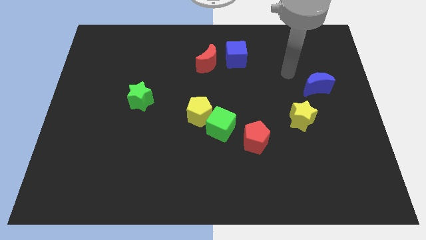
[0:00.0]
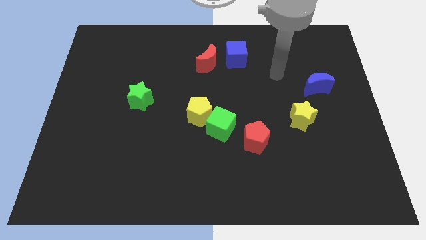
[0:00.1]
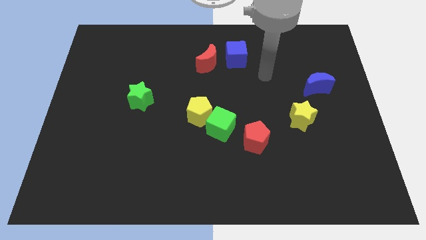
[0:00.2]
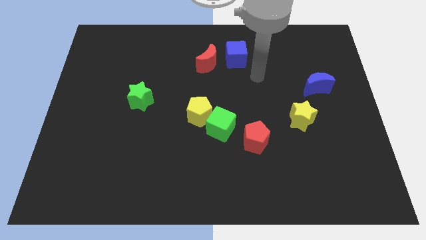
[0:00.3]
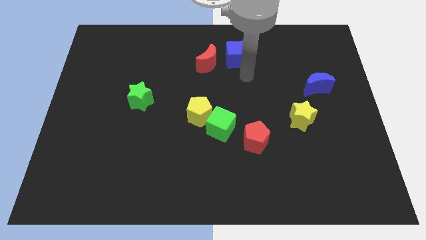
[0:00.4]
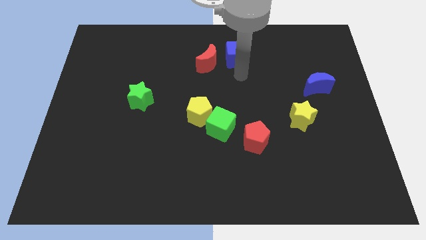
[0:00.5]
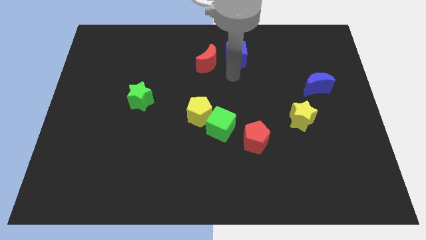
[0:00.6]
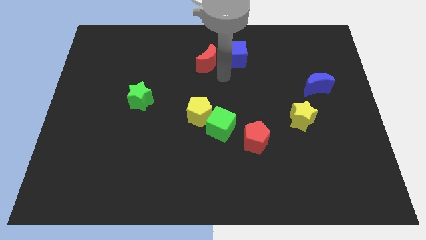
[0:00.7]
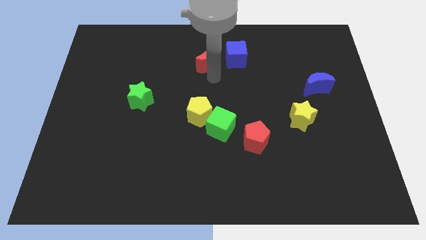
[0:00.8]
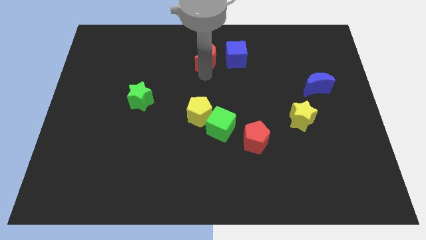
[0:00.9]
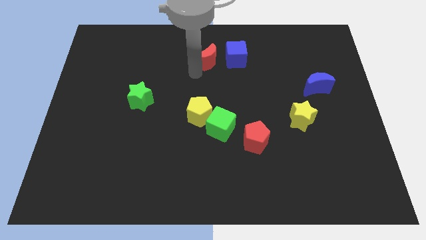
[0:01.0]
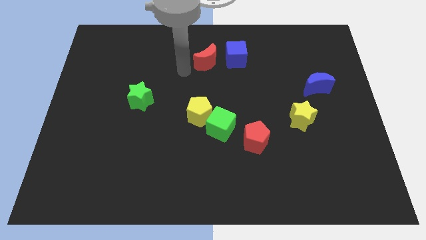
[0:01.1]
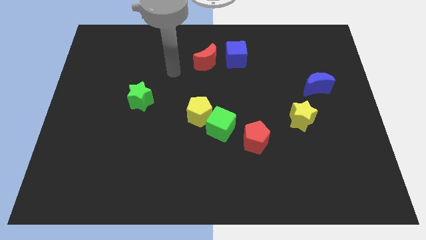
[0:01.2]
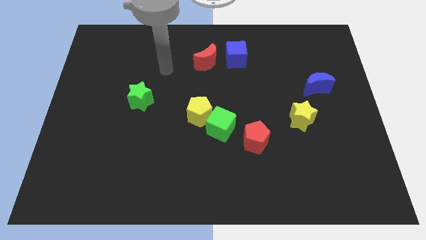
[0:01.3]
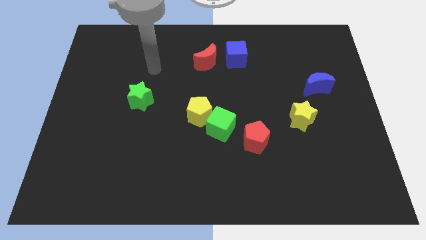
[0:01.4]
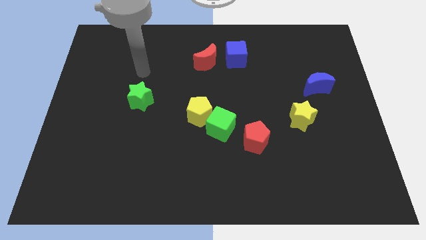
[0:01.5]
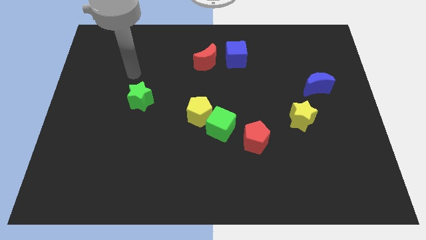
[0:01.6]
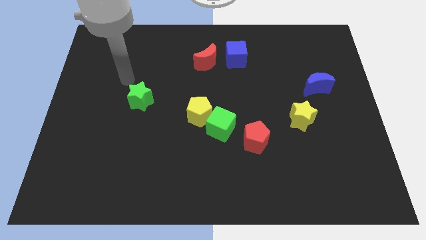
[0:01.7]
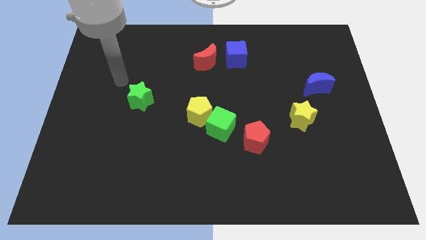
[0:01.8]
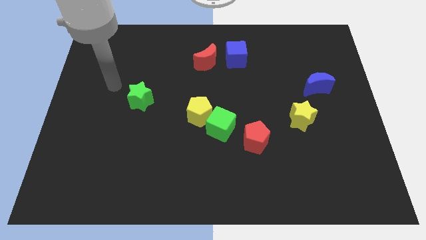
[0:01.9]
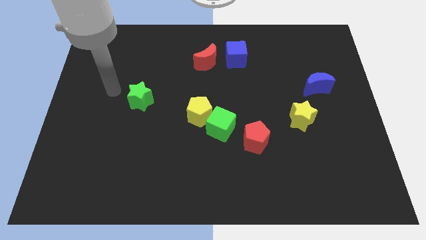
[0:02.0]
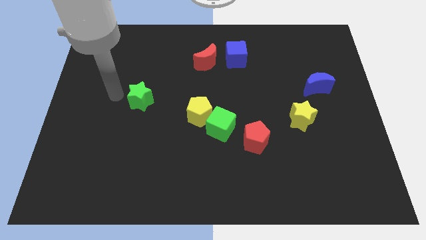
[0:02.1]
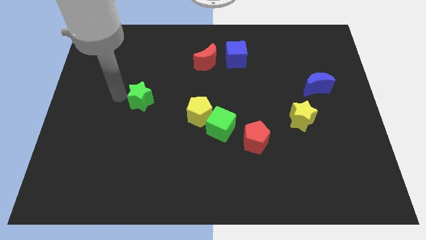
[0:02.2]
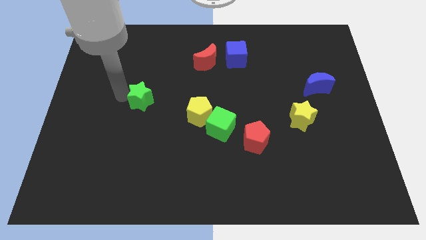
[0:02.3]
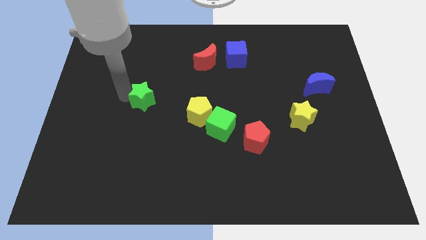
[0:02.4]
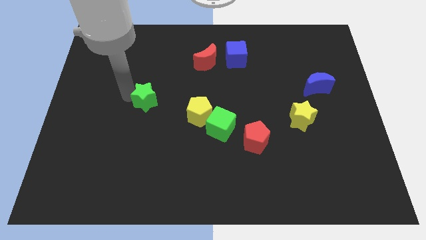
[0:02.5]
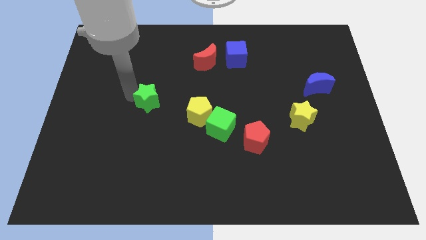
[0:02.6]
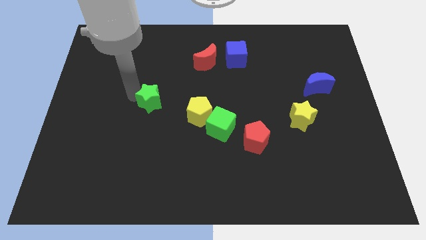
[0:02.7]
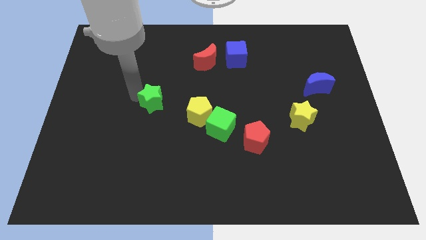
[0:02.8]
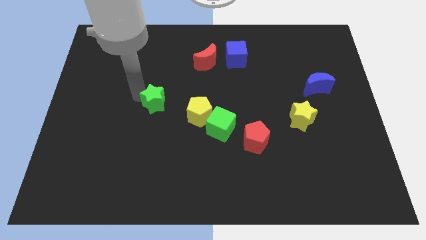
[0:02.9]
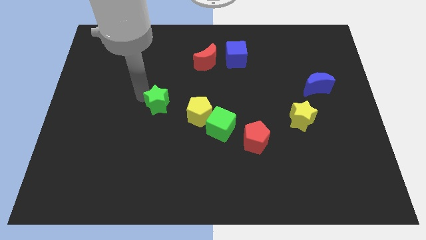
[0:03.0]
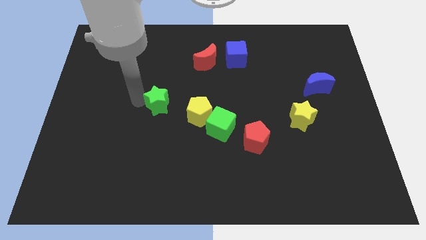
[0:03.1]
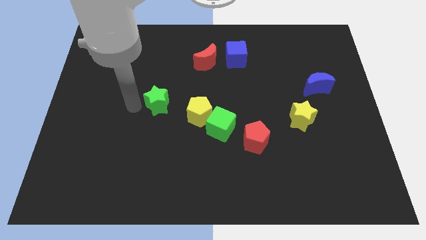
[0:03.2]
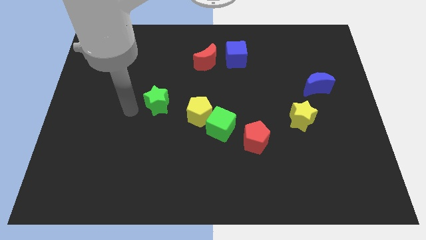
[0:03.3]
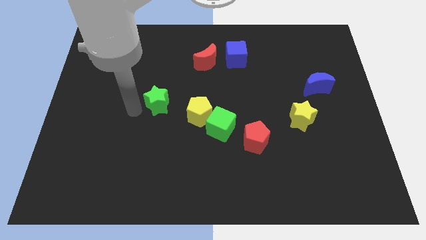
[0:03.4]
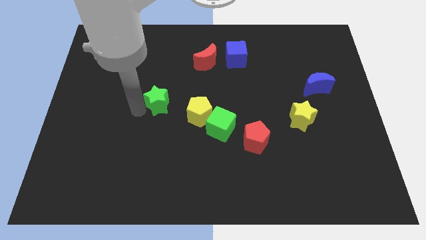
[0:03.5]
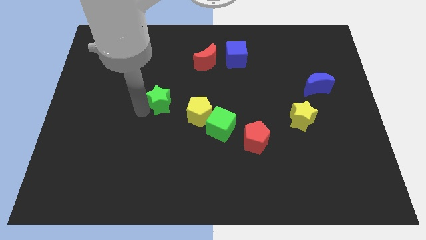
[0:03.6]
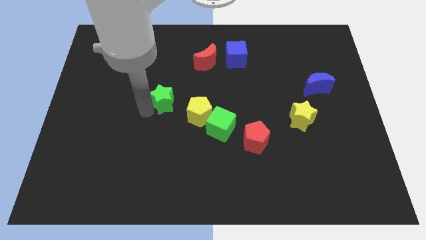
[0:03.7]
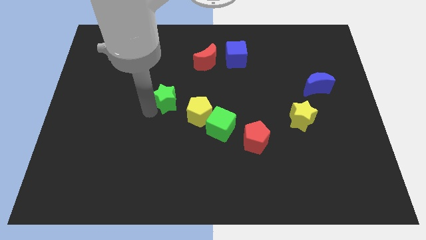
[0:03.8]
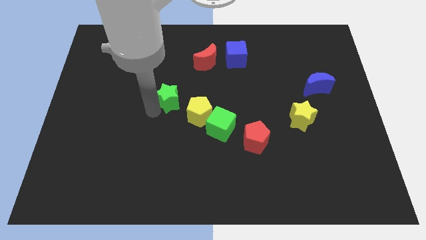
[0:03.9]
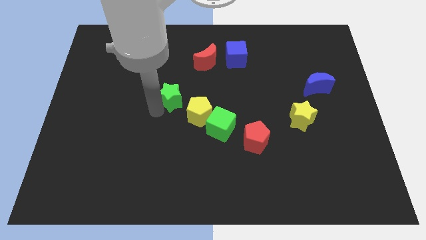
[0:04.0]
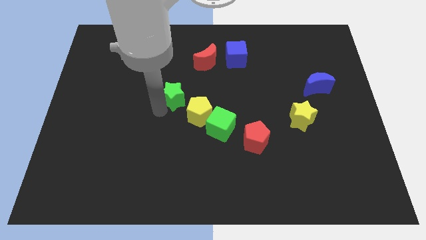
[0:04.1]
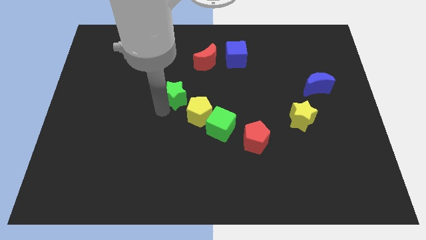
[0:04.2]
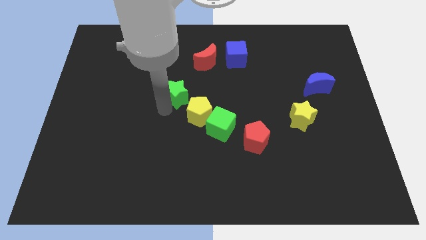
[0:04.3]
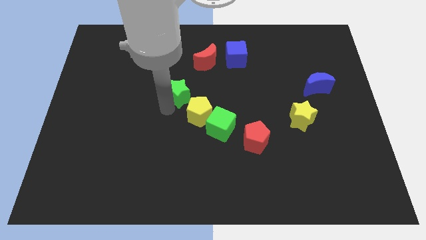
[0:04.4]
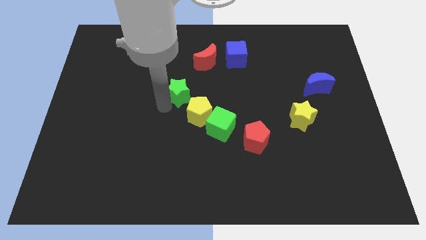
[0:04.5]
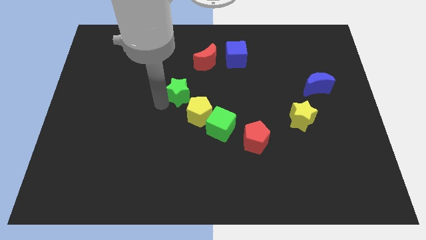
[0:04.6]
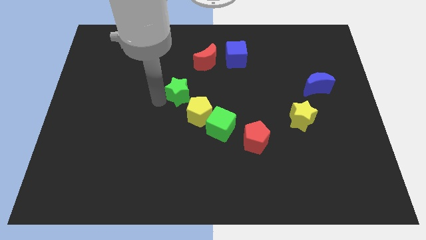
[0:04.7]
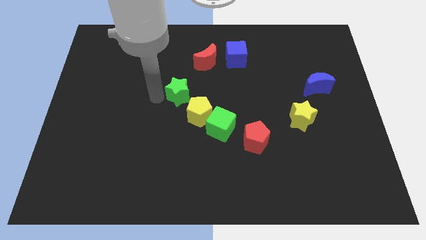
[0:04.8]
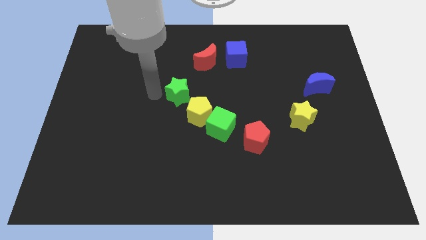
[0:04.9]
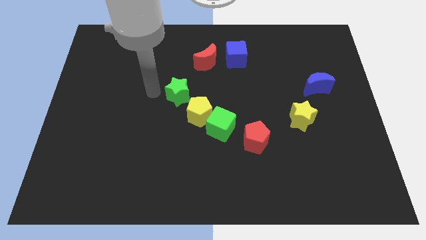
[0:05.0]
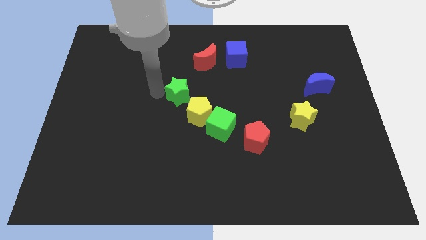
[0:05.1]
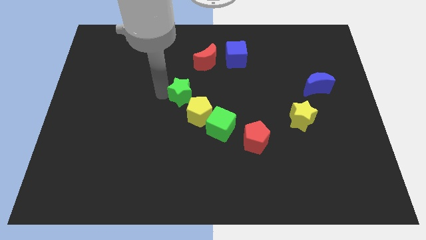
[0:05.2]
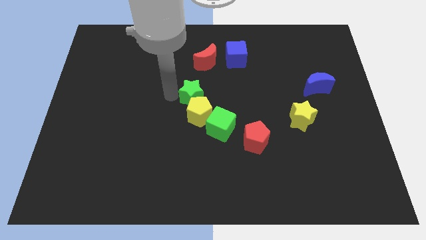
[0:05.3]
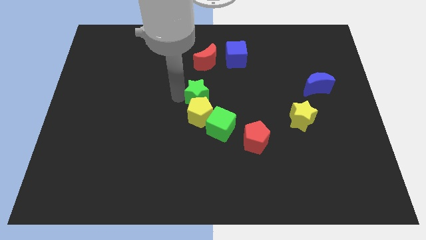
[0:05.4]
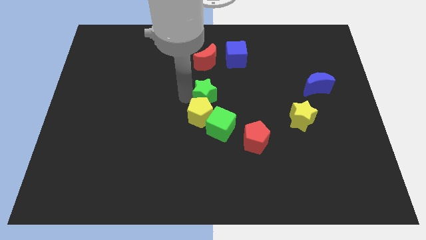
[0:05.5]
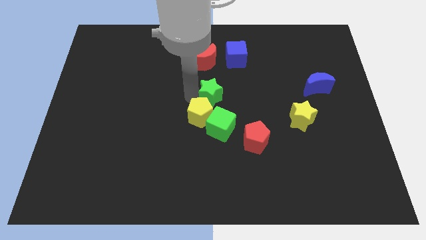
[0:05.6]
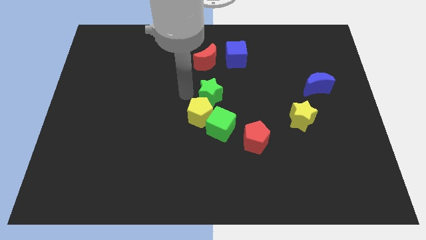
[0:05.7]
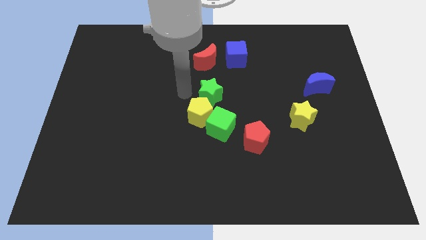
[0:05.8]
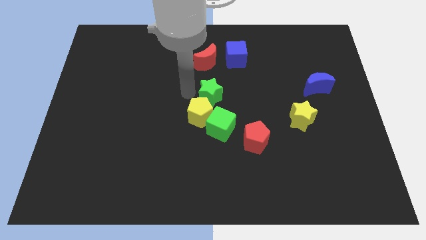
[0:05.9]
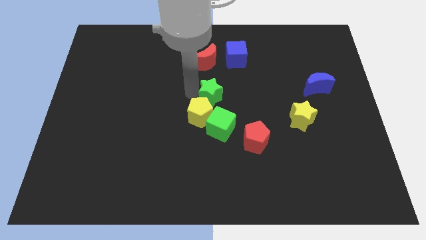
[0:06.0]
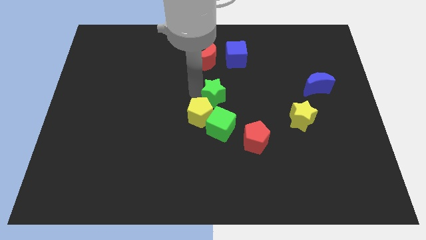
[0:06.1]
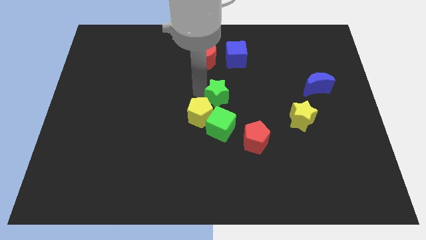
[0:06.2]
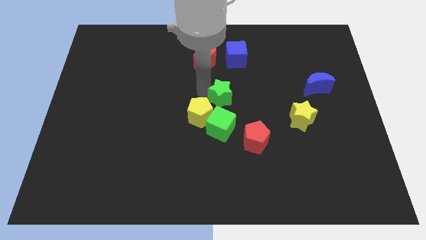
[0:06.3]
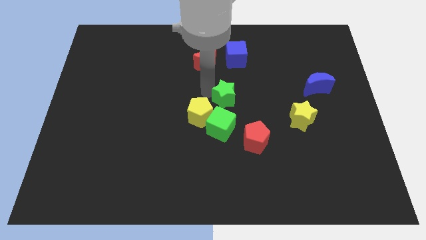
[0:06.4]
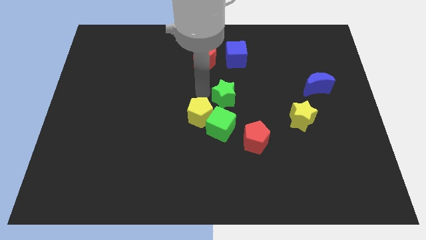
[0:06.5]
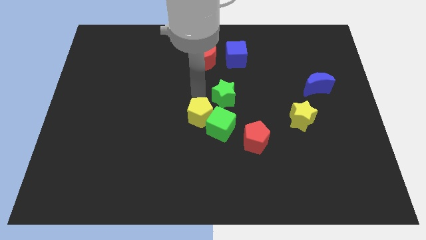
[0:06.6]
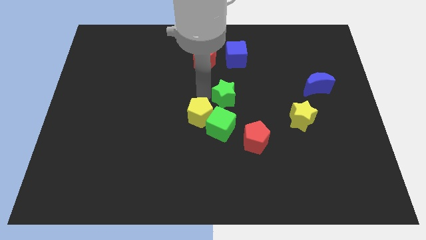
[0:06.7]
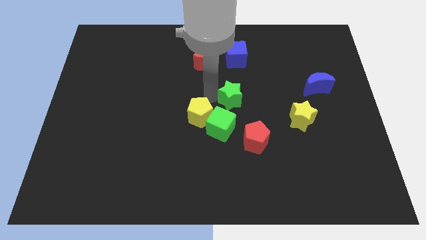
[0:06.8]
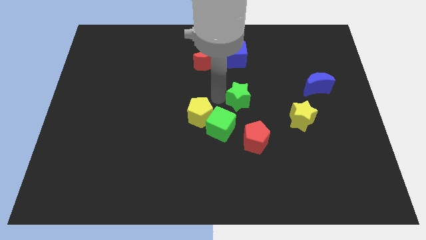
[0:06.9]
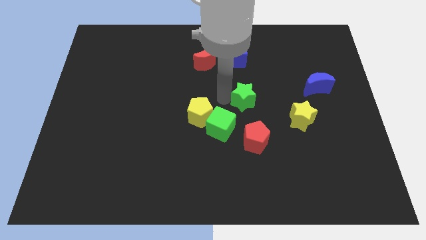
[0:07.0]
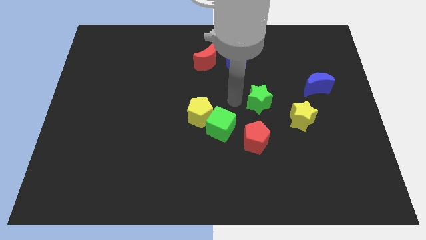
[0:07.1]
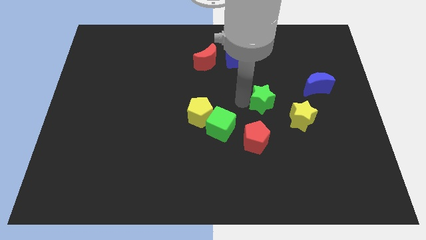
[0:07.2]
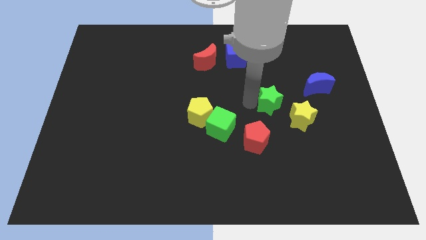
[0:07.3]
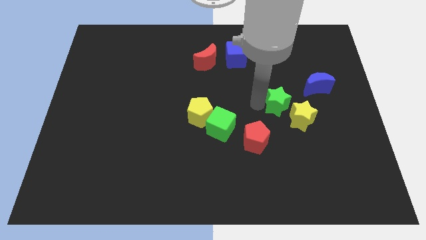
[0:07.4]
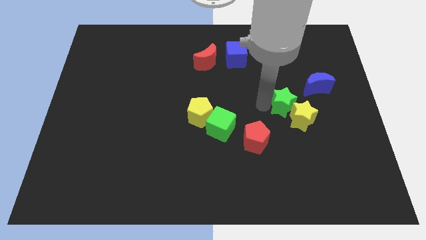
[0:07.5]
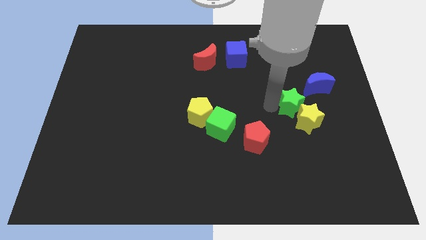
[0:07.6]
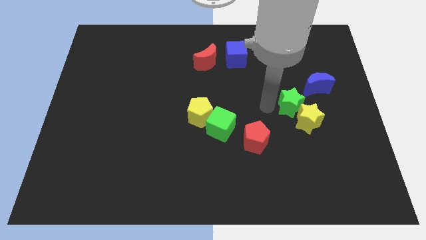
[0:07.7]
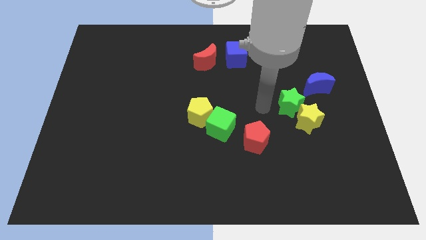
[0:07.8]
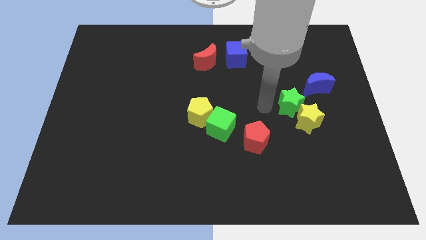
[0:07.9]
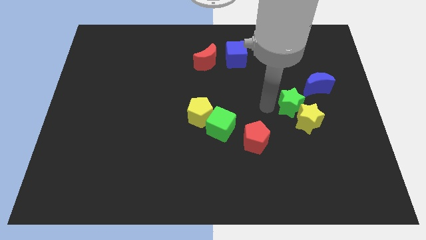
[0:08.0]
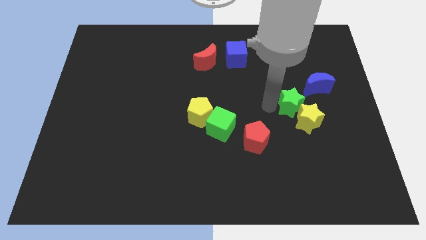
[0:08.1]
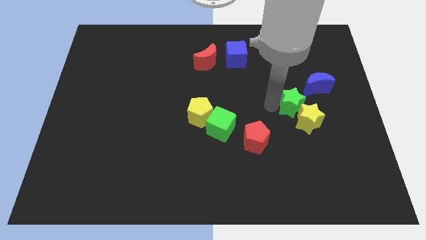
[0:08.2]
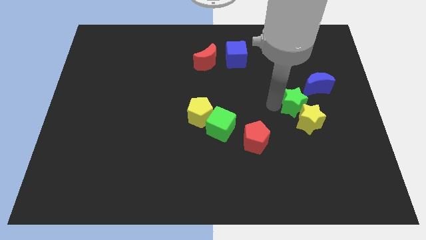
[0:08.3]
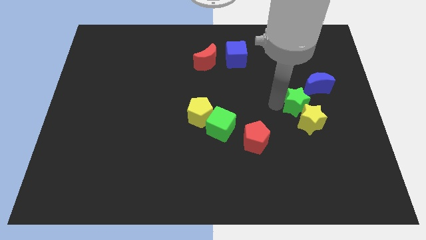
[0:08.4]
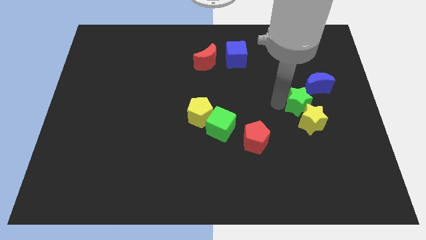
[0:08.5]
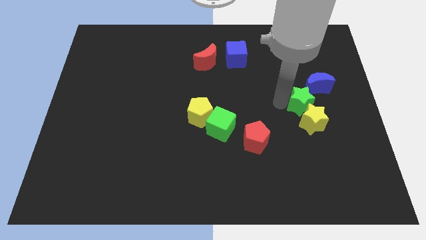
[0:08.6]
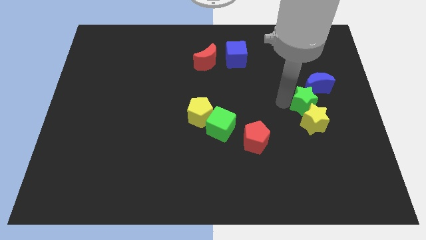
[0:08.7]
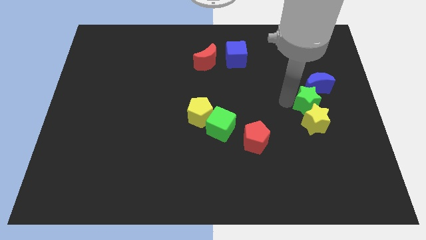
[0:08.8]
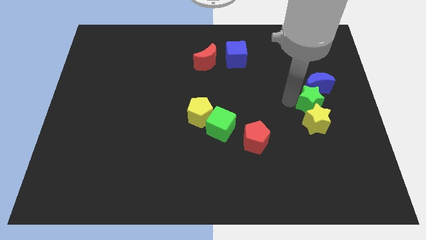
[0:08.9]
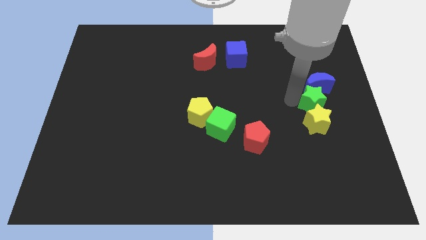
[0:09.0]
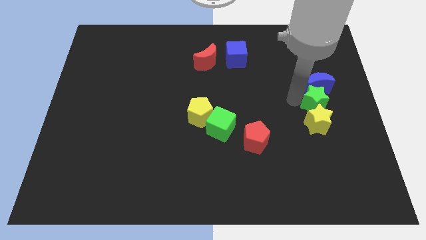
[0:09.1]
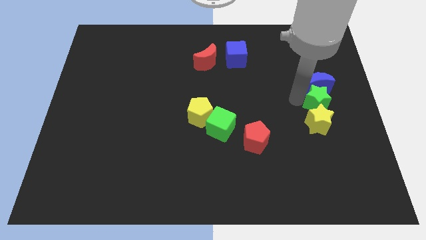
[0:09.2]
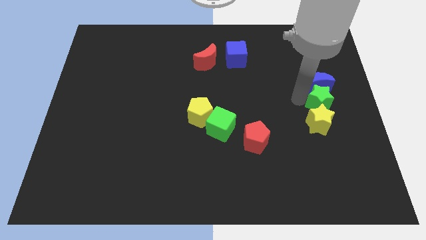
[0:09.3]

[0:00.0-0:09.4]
move the green star to the center right
